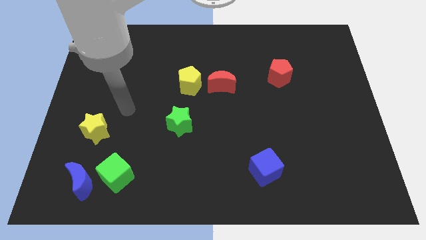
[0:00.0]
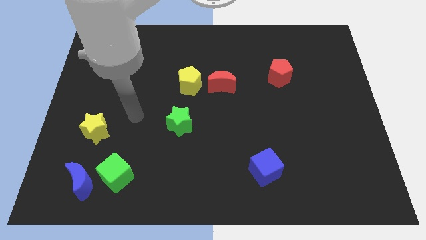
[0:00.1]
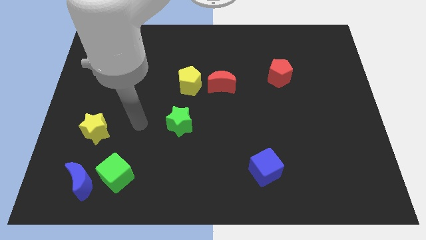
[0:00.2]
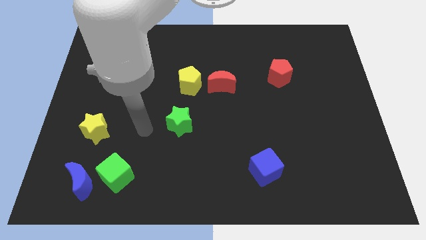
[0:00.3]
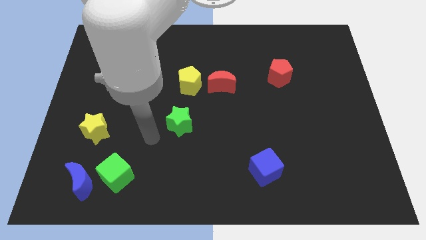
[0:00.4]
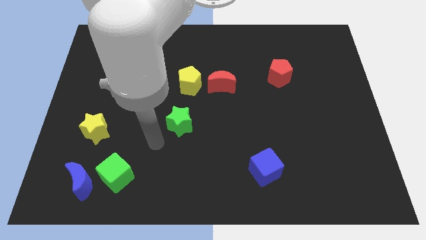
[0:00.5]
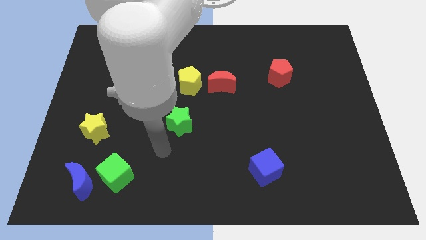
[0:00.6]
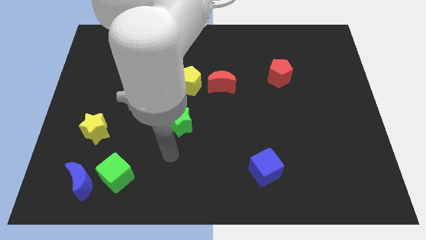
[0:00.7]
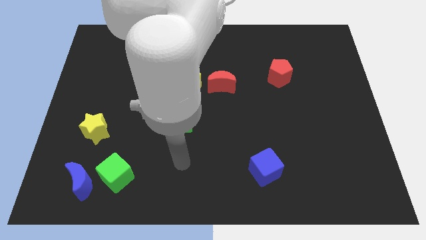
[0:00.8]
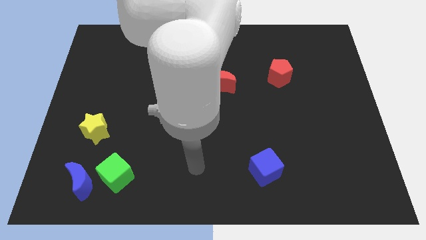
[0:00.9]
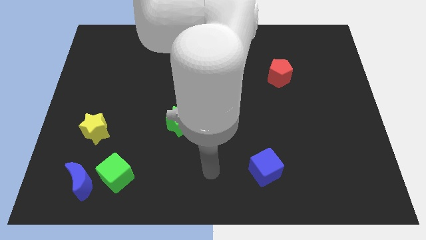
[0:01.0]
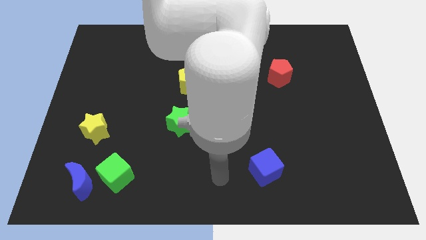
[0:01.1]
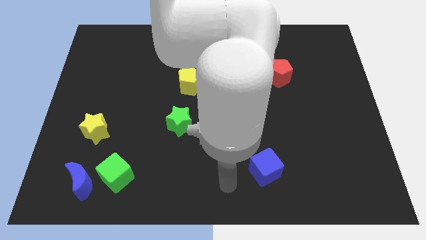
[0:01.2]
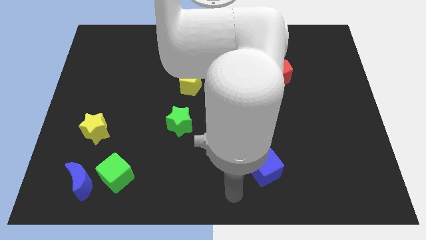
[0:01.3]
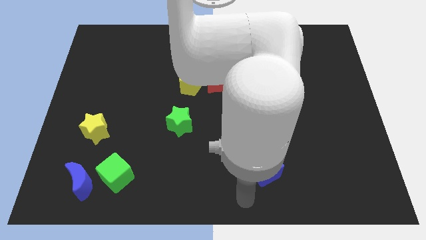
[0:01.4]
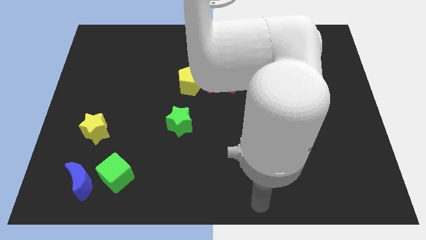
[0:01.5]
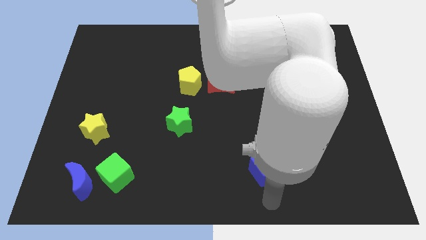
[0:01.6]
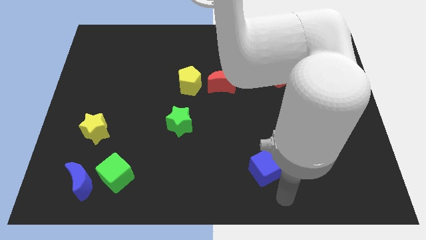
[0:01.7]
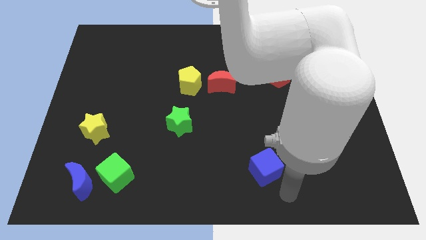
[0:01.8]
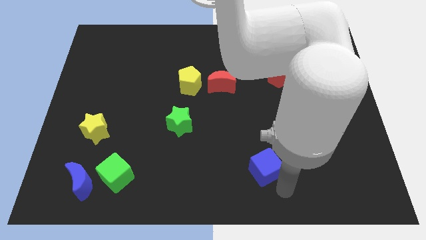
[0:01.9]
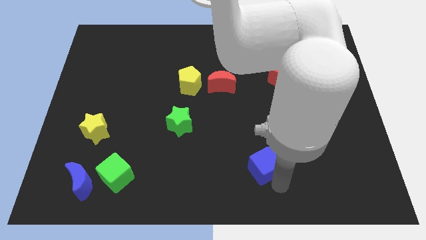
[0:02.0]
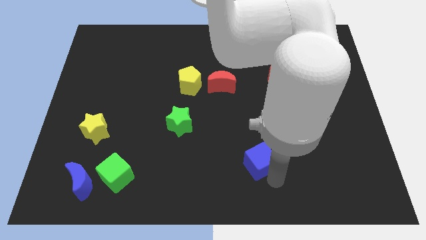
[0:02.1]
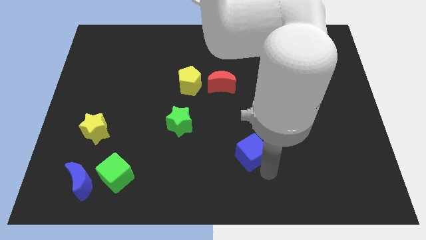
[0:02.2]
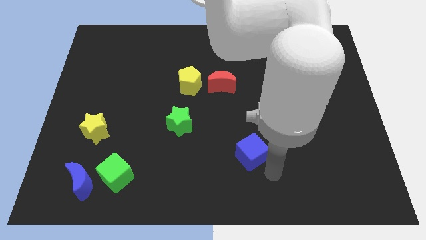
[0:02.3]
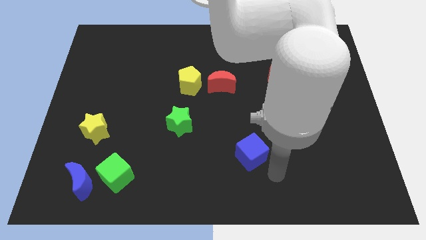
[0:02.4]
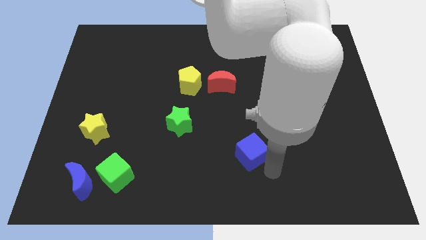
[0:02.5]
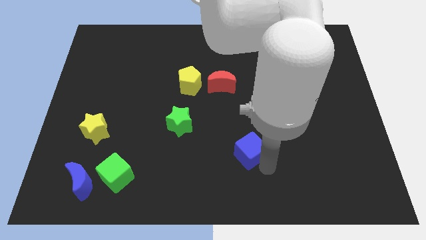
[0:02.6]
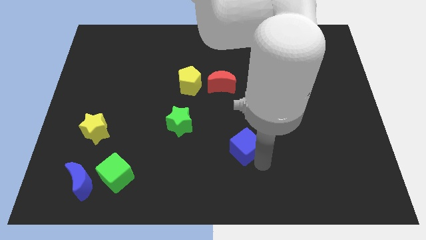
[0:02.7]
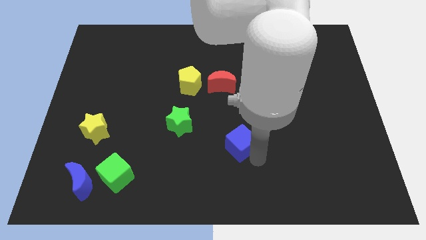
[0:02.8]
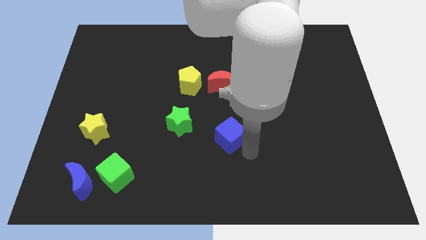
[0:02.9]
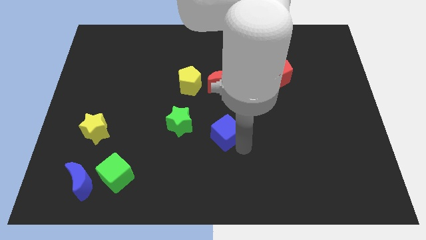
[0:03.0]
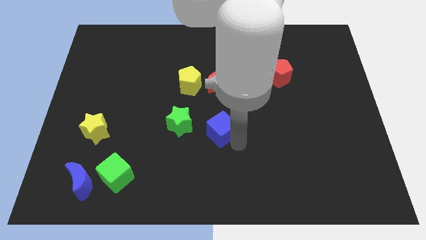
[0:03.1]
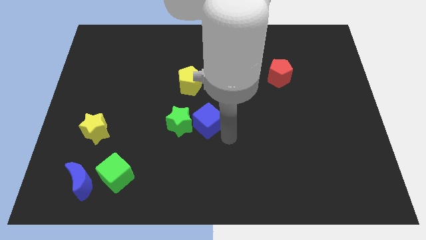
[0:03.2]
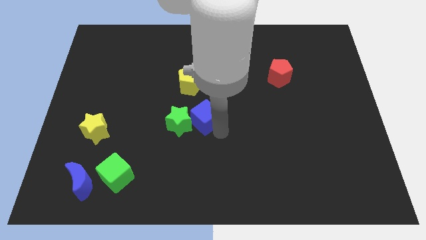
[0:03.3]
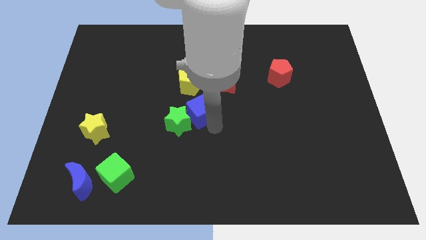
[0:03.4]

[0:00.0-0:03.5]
slide the blue cube up and left diagonally

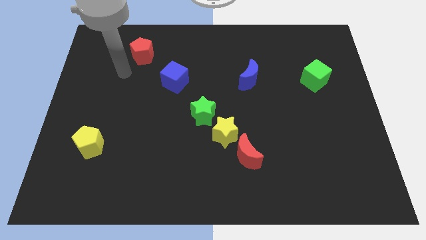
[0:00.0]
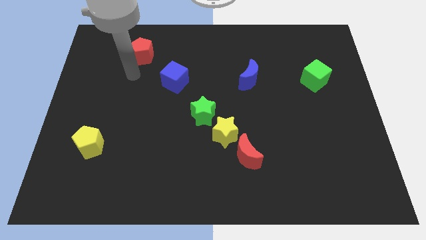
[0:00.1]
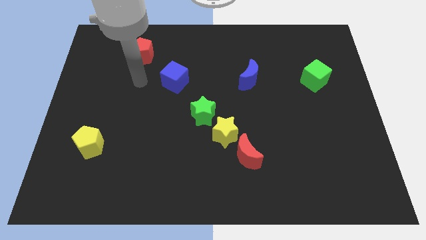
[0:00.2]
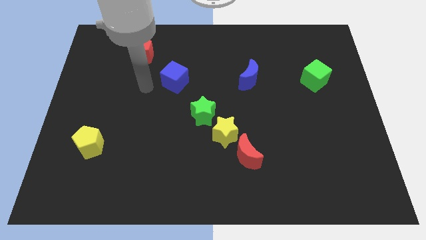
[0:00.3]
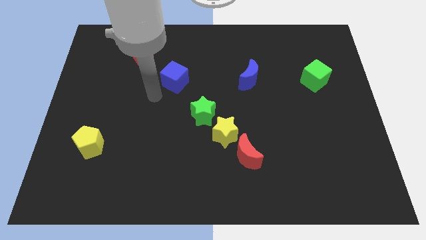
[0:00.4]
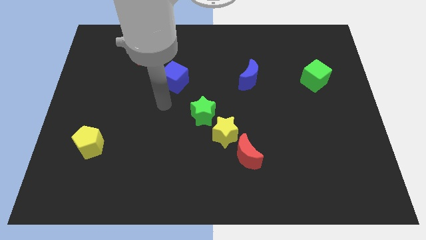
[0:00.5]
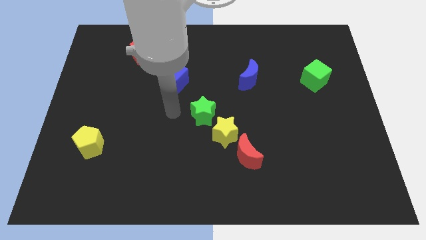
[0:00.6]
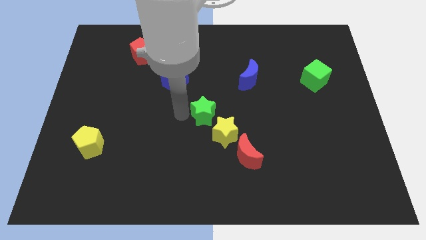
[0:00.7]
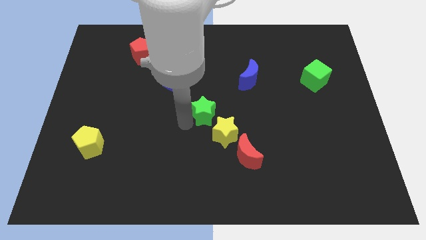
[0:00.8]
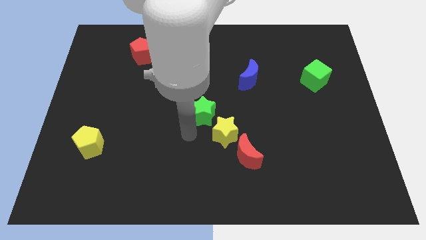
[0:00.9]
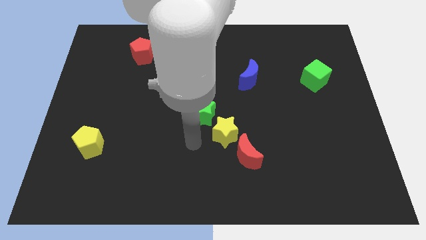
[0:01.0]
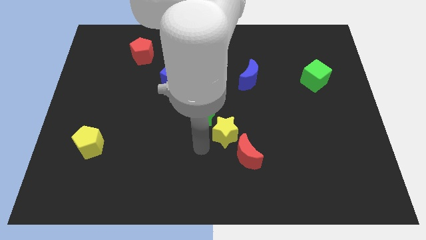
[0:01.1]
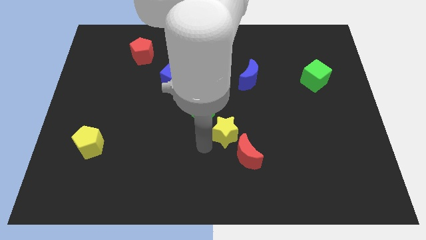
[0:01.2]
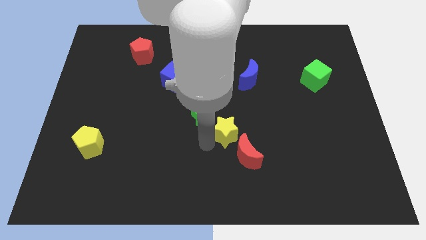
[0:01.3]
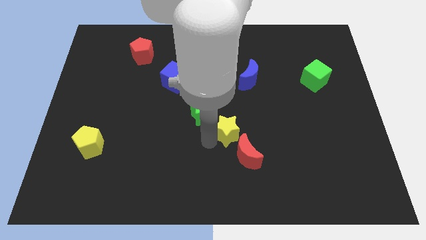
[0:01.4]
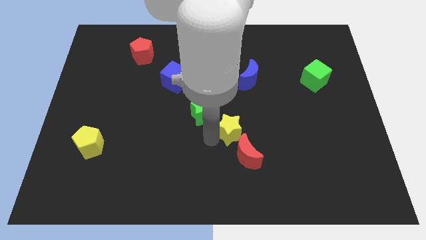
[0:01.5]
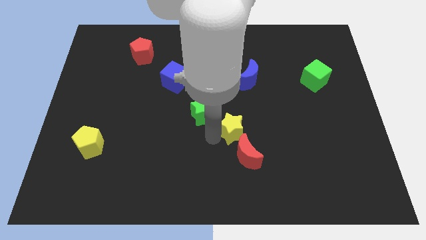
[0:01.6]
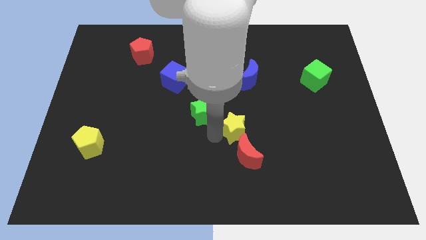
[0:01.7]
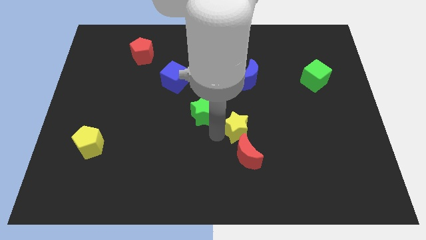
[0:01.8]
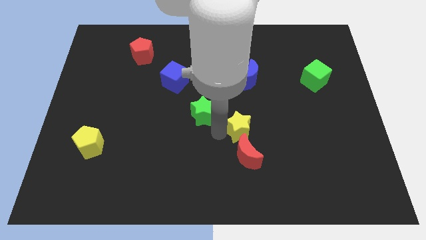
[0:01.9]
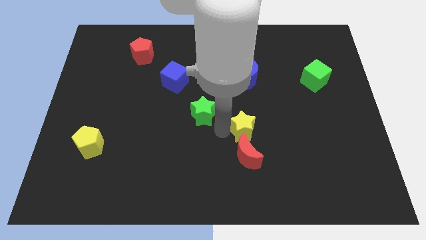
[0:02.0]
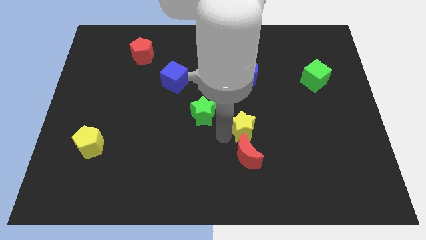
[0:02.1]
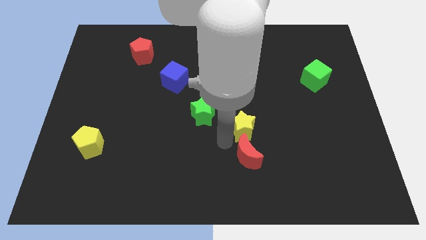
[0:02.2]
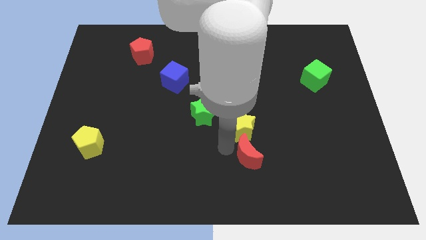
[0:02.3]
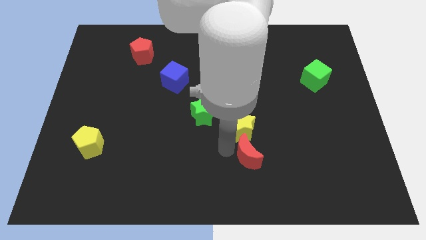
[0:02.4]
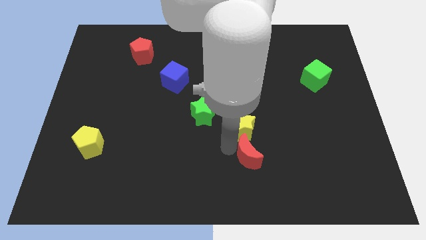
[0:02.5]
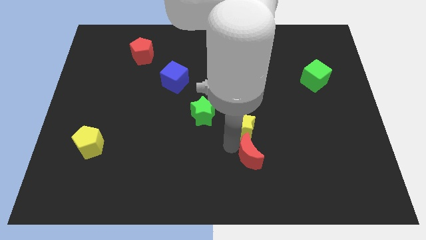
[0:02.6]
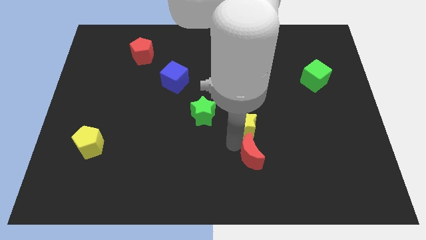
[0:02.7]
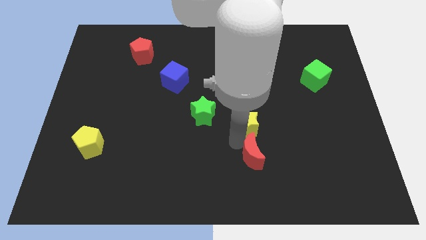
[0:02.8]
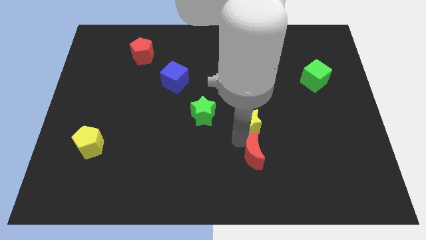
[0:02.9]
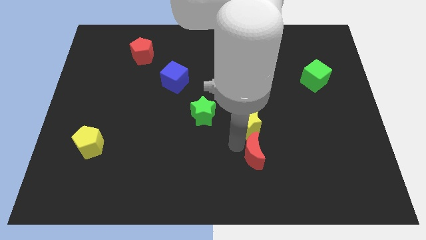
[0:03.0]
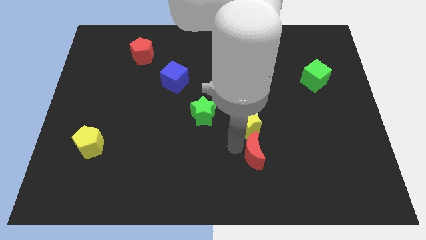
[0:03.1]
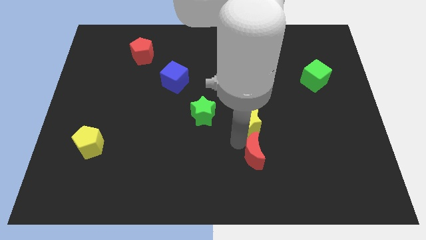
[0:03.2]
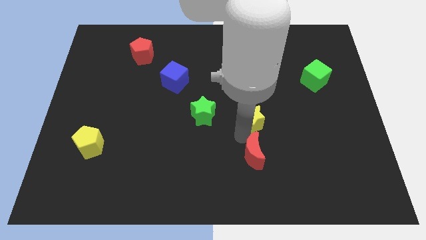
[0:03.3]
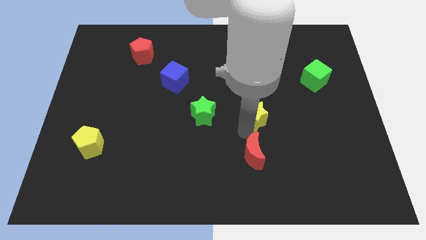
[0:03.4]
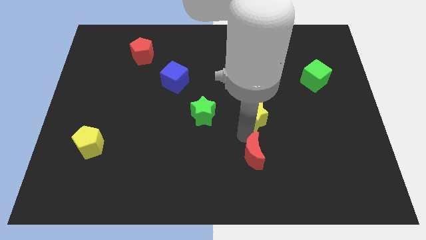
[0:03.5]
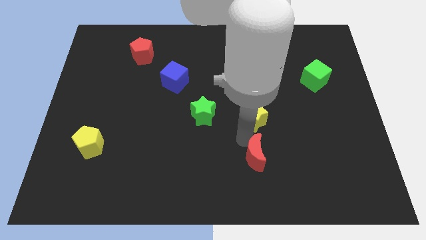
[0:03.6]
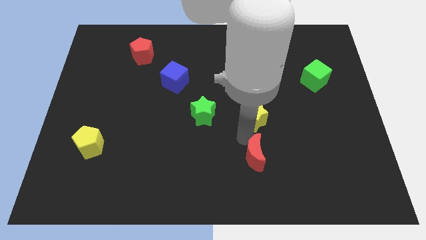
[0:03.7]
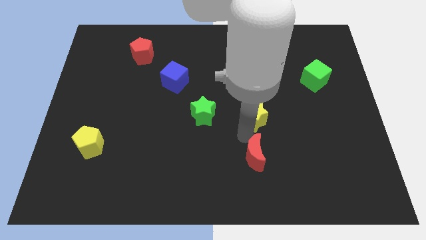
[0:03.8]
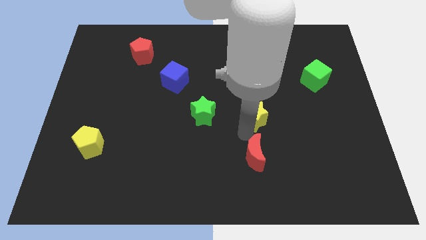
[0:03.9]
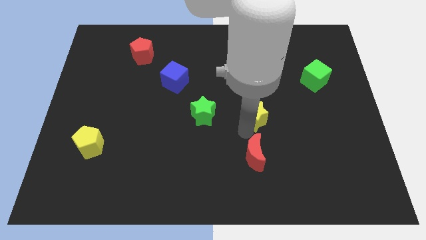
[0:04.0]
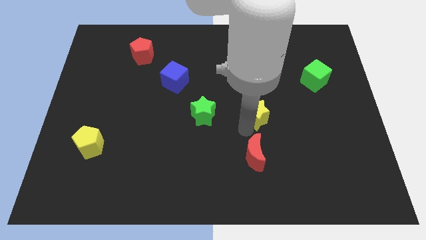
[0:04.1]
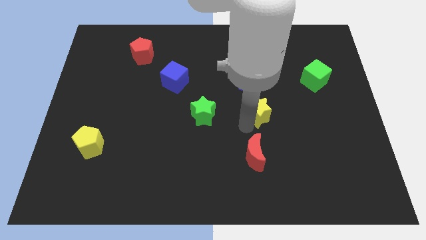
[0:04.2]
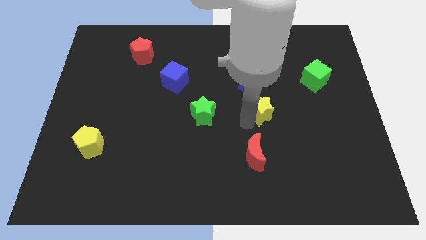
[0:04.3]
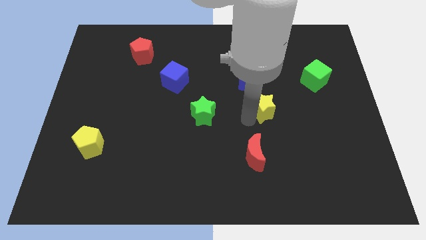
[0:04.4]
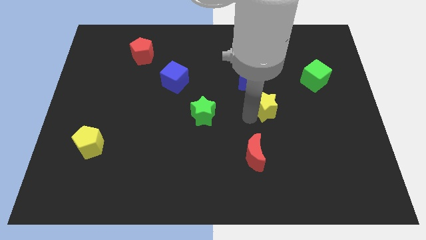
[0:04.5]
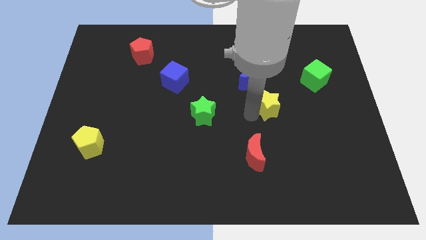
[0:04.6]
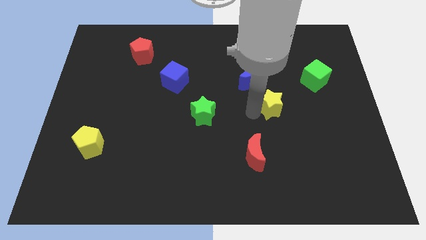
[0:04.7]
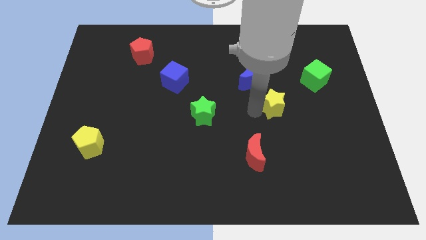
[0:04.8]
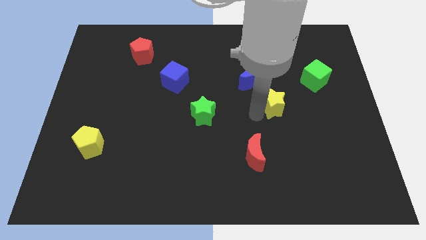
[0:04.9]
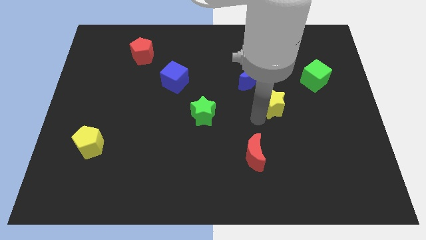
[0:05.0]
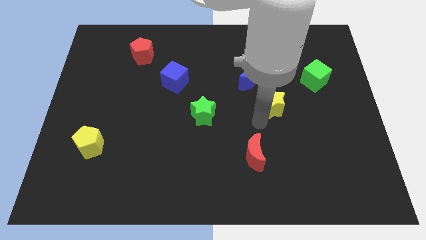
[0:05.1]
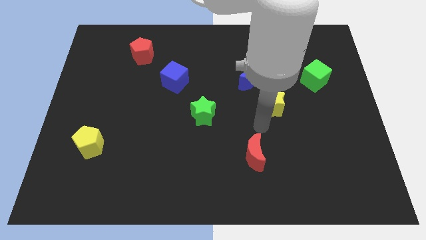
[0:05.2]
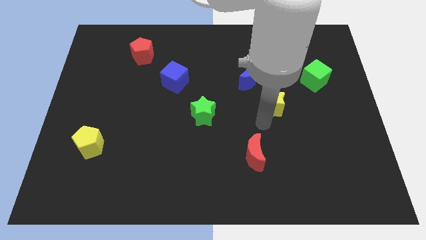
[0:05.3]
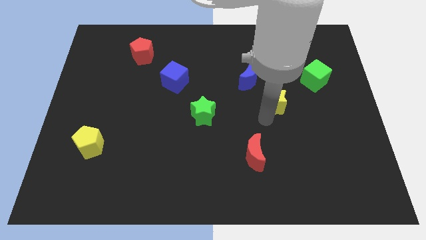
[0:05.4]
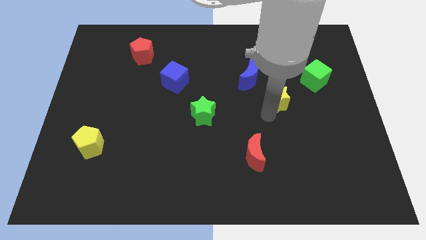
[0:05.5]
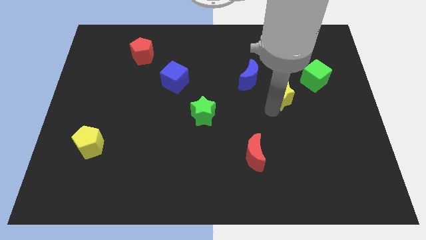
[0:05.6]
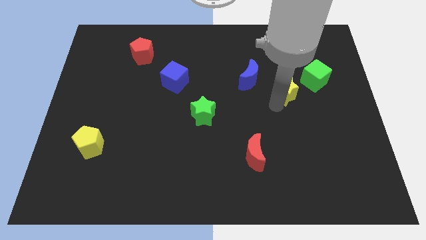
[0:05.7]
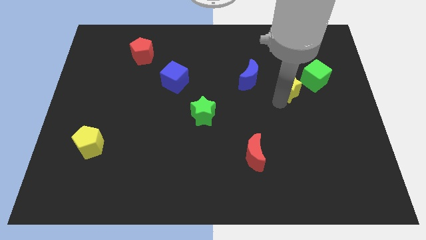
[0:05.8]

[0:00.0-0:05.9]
move the yellow star diagonally up and right
